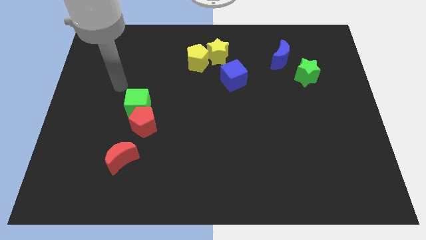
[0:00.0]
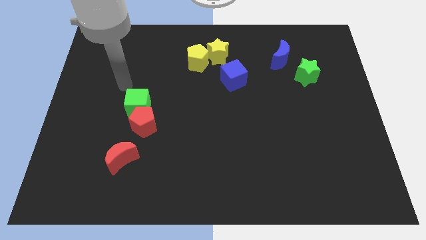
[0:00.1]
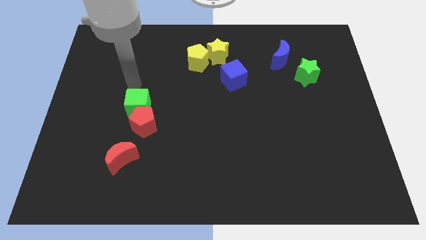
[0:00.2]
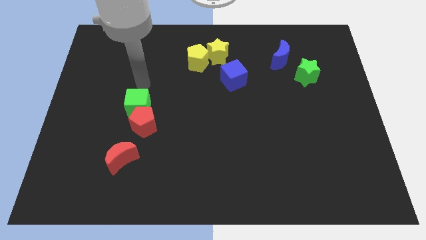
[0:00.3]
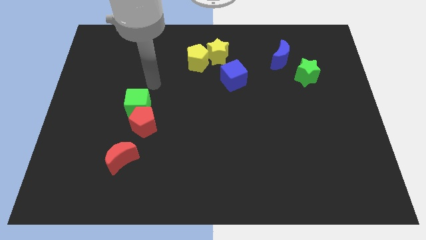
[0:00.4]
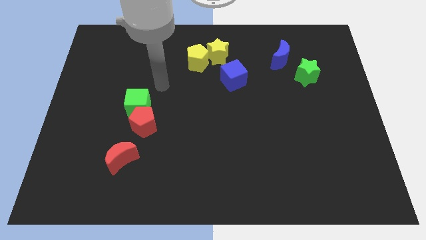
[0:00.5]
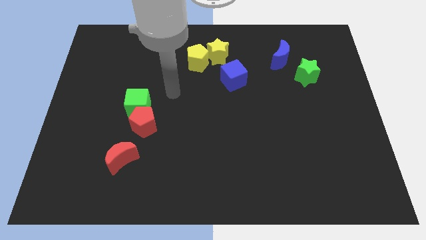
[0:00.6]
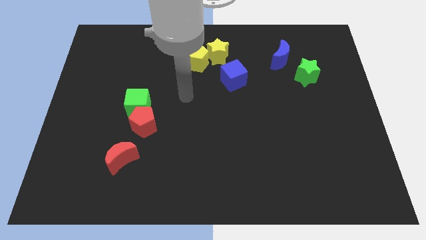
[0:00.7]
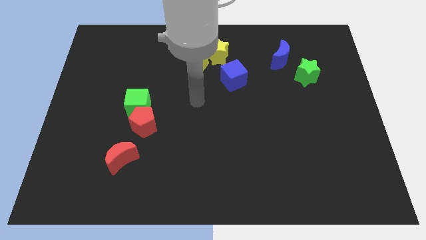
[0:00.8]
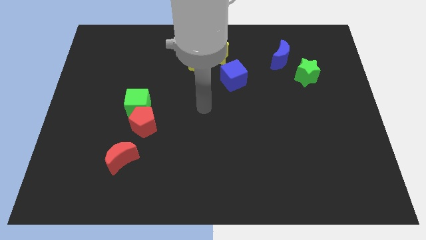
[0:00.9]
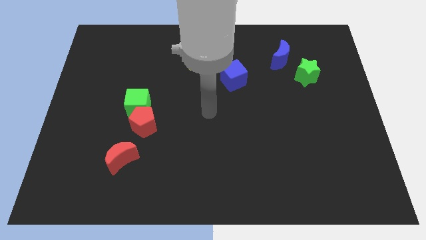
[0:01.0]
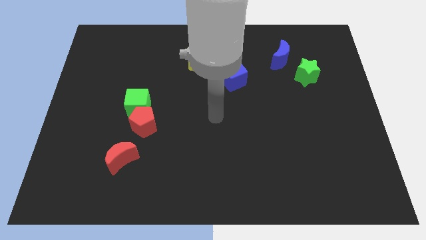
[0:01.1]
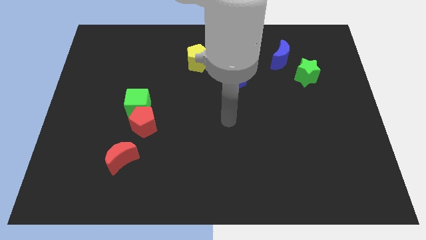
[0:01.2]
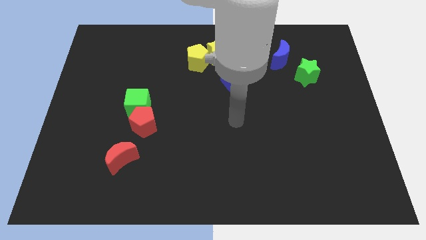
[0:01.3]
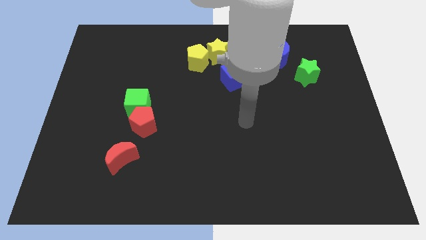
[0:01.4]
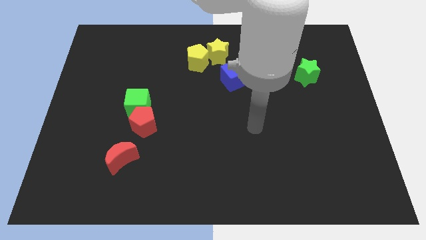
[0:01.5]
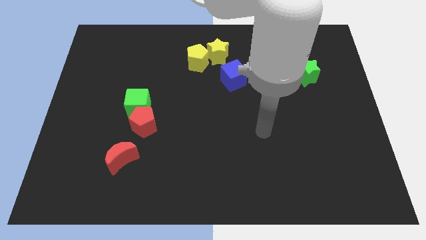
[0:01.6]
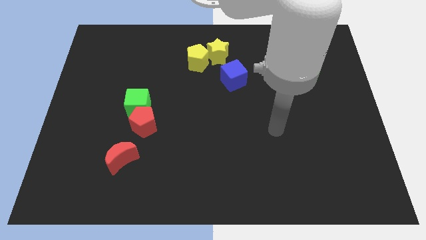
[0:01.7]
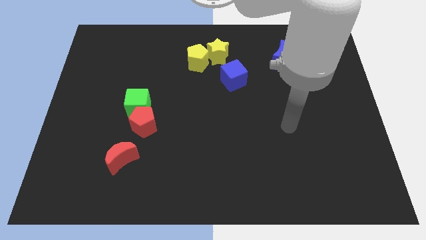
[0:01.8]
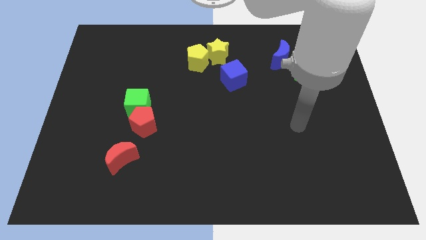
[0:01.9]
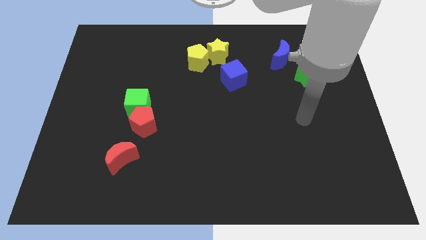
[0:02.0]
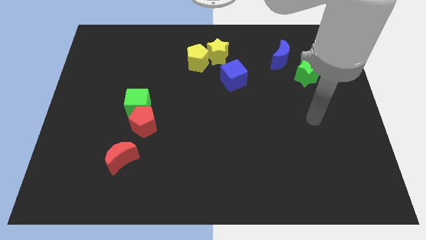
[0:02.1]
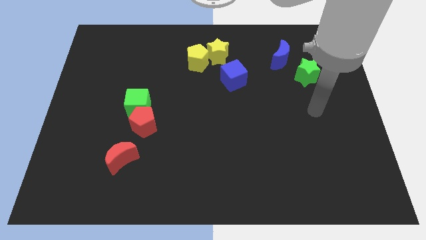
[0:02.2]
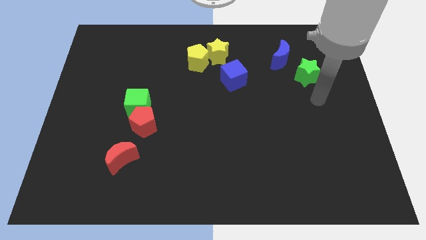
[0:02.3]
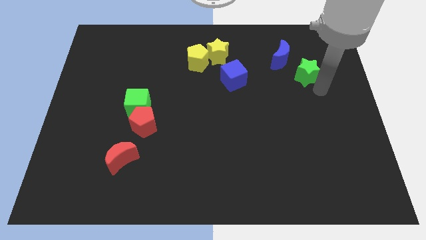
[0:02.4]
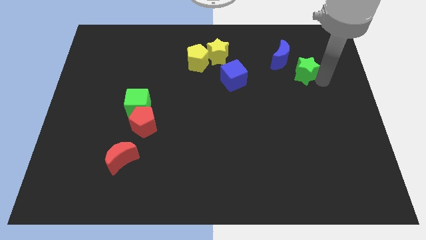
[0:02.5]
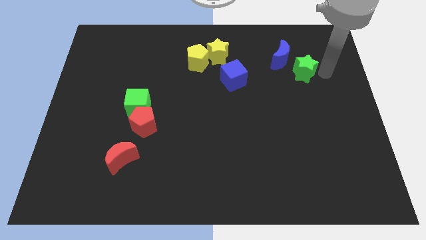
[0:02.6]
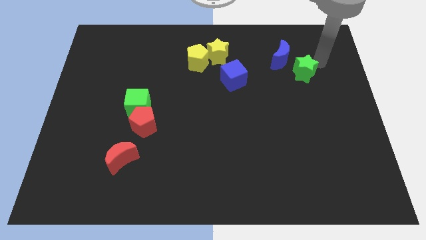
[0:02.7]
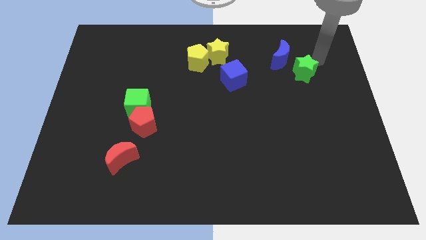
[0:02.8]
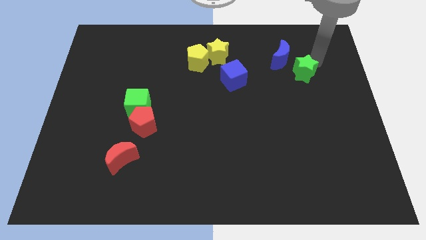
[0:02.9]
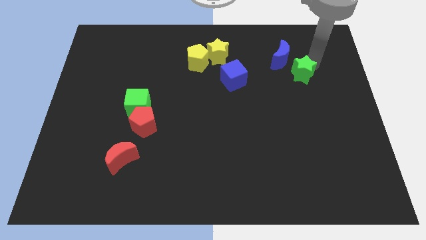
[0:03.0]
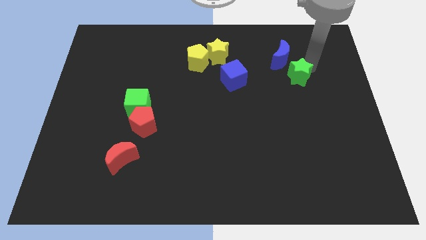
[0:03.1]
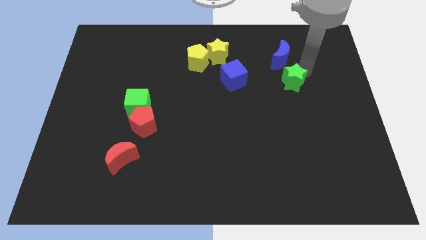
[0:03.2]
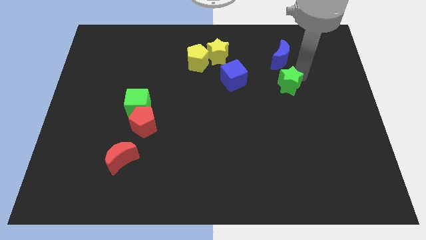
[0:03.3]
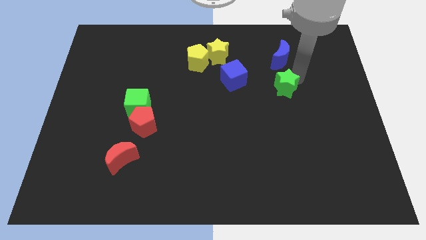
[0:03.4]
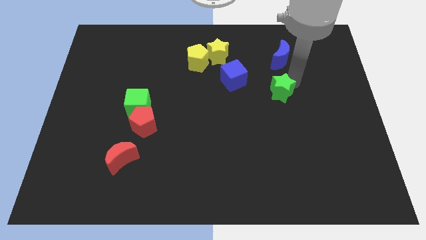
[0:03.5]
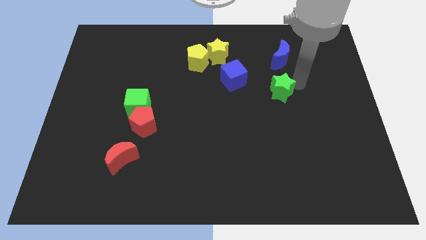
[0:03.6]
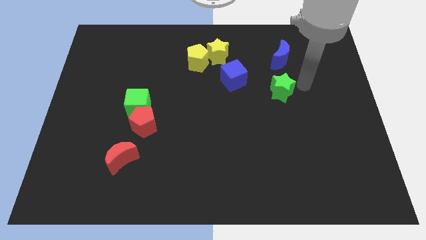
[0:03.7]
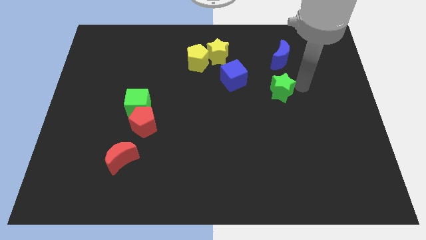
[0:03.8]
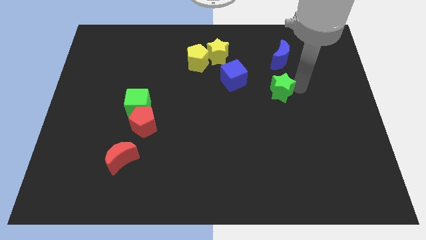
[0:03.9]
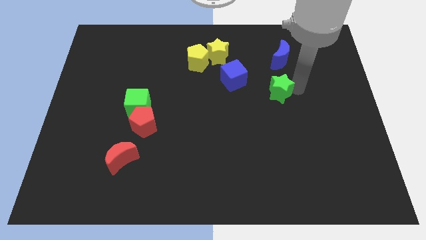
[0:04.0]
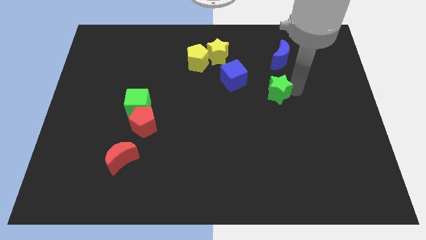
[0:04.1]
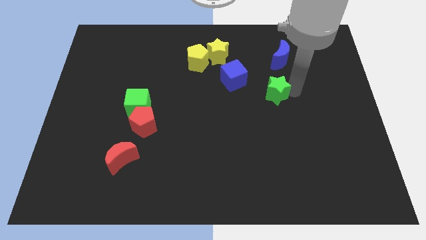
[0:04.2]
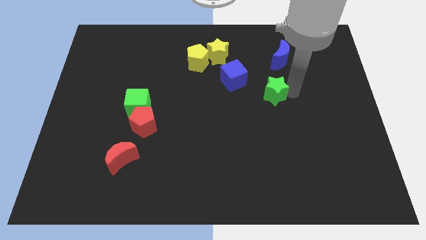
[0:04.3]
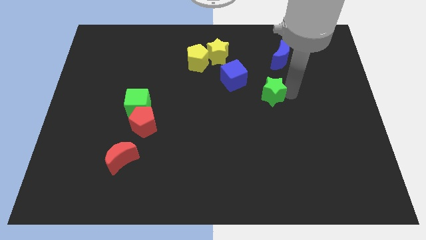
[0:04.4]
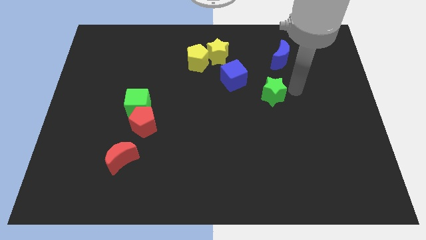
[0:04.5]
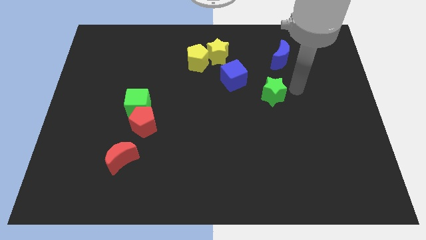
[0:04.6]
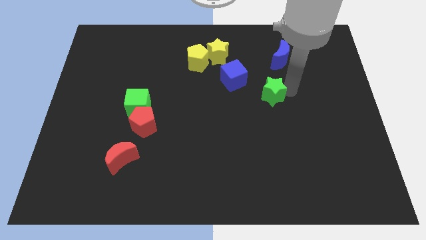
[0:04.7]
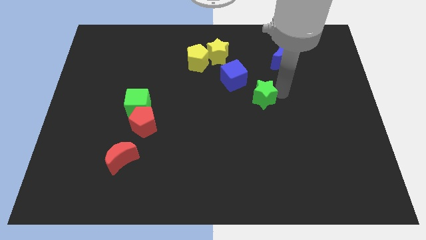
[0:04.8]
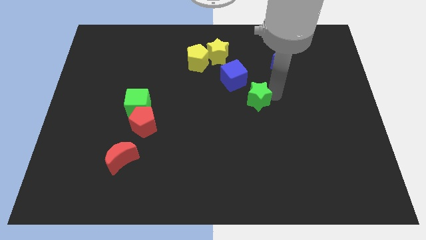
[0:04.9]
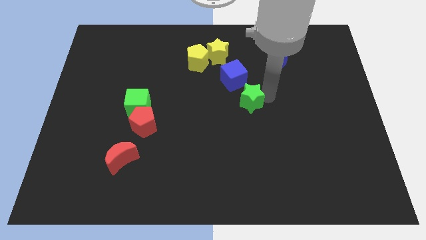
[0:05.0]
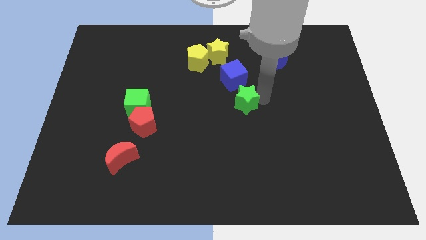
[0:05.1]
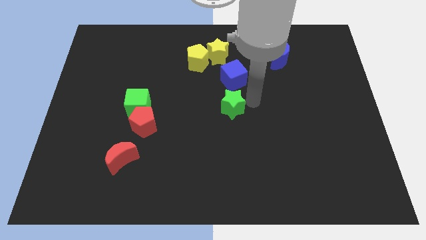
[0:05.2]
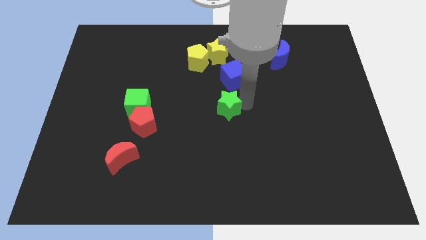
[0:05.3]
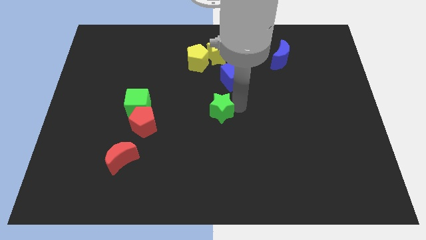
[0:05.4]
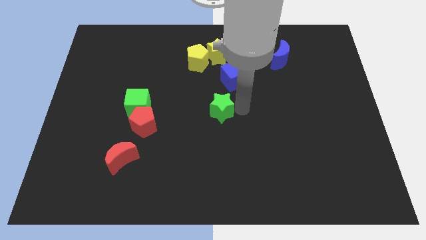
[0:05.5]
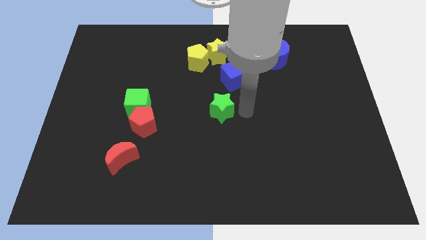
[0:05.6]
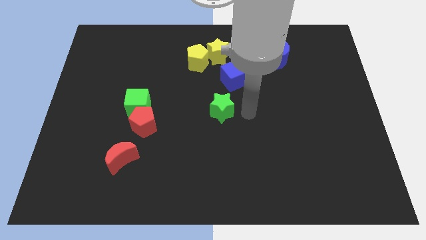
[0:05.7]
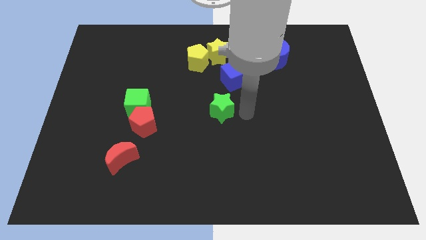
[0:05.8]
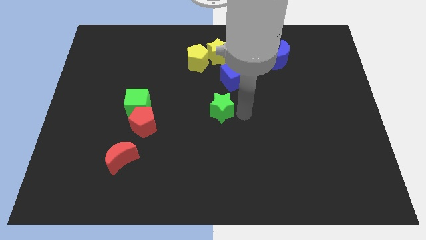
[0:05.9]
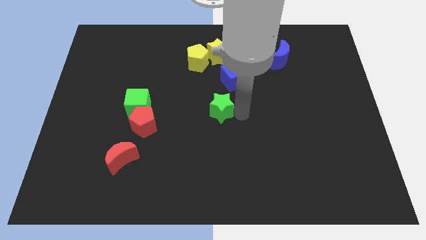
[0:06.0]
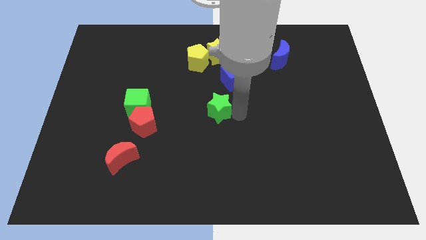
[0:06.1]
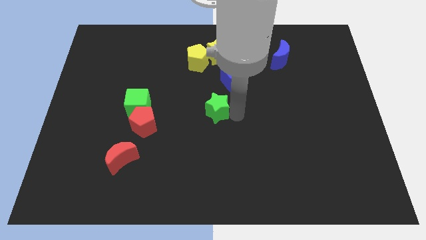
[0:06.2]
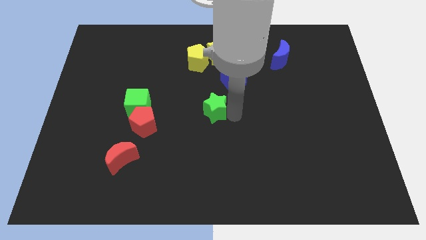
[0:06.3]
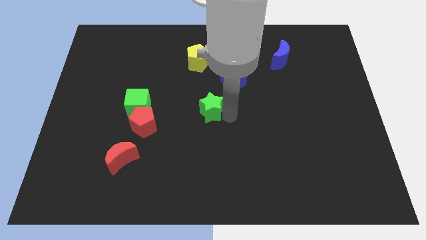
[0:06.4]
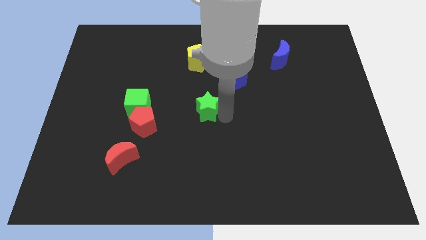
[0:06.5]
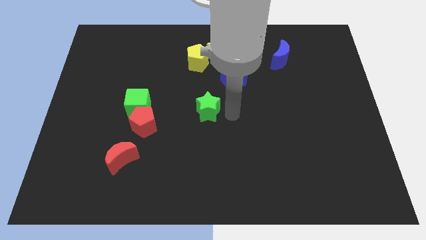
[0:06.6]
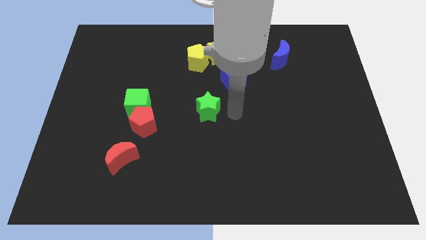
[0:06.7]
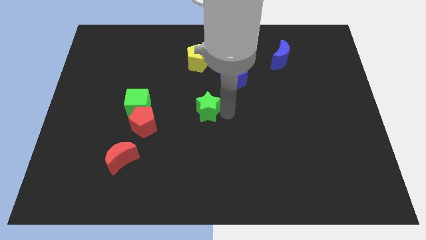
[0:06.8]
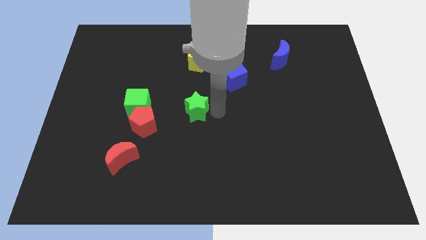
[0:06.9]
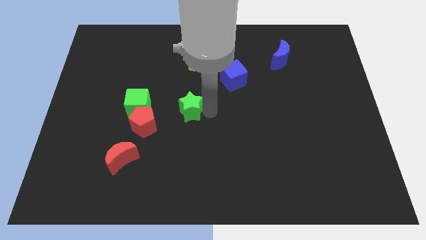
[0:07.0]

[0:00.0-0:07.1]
slide the green star to the top right side of the red pentagon
